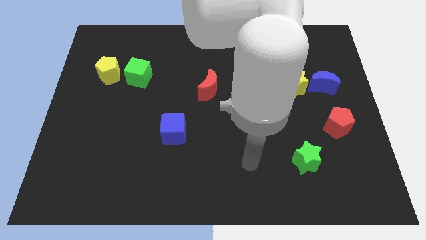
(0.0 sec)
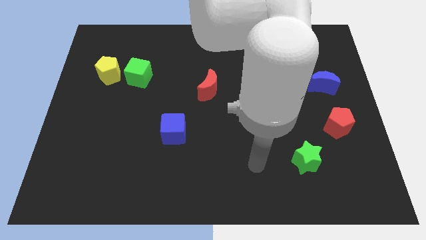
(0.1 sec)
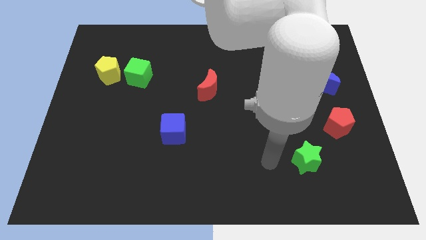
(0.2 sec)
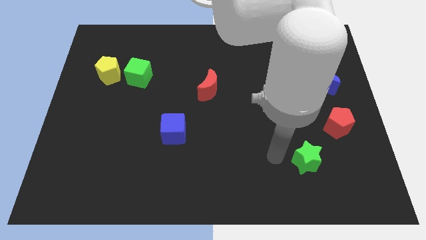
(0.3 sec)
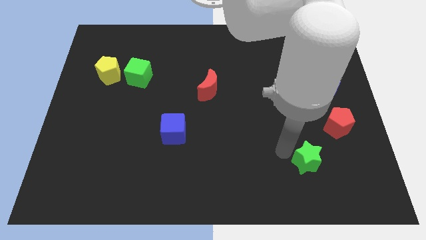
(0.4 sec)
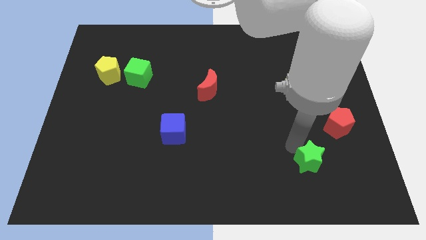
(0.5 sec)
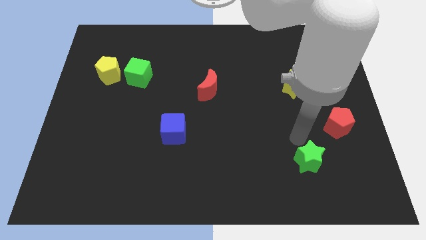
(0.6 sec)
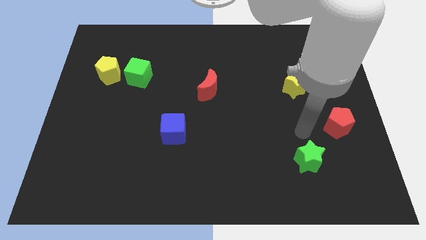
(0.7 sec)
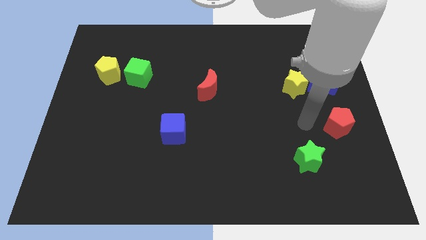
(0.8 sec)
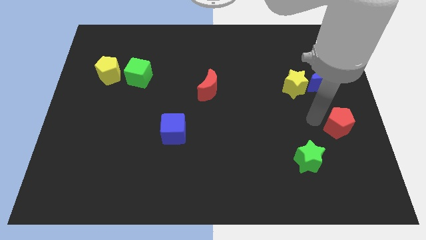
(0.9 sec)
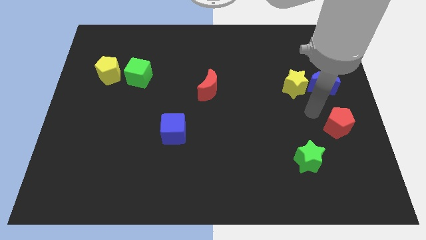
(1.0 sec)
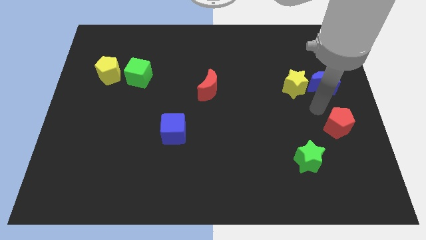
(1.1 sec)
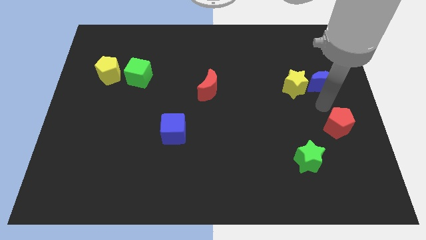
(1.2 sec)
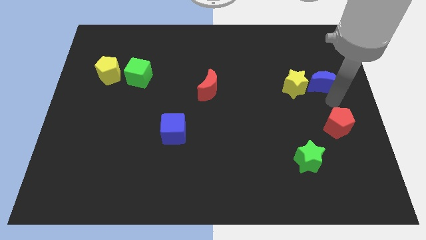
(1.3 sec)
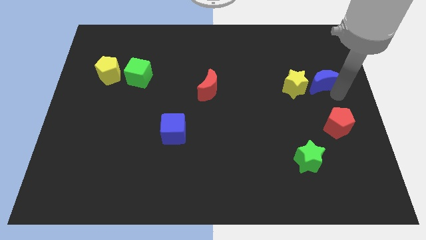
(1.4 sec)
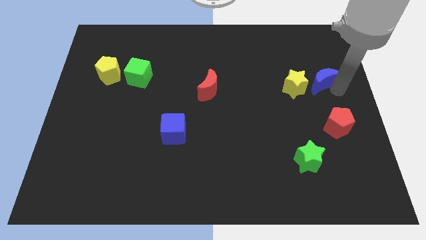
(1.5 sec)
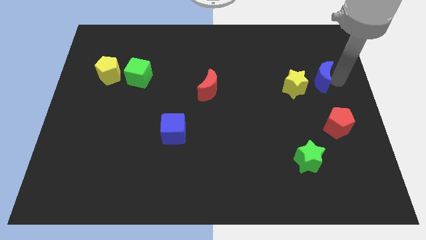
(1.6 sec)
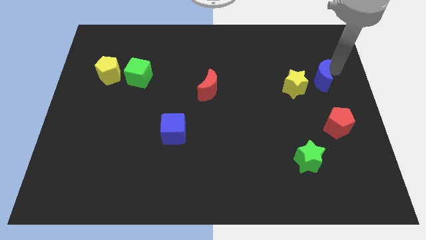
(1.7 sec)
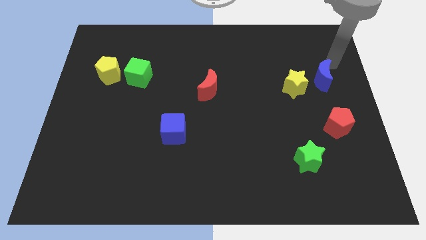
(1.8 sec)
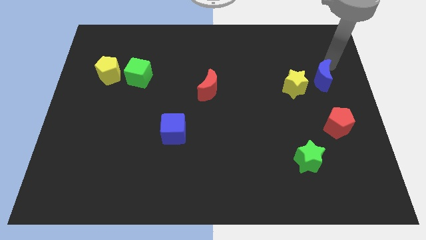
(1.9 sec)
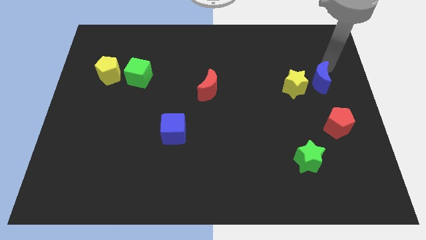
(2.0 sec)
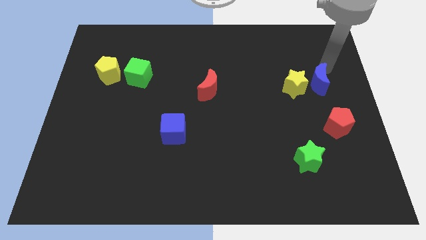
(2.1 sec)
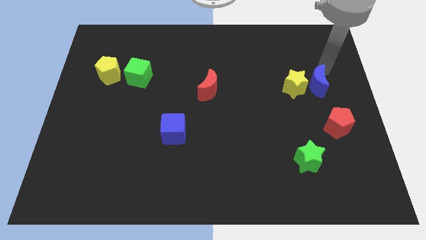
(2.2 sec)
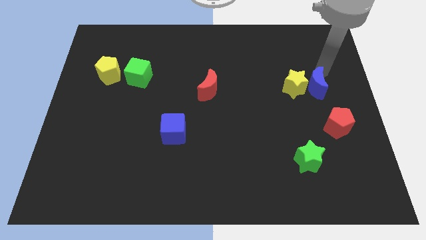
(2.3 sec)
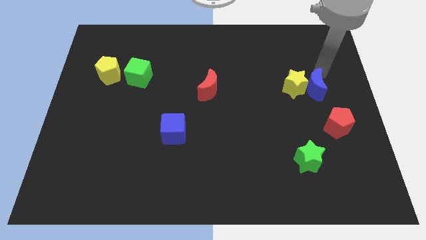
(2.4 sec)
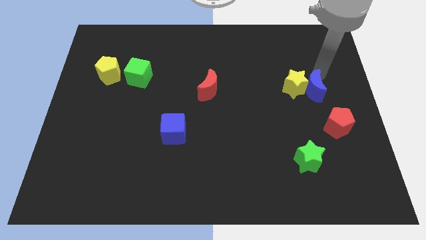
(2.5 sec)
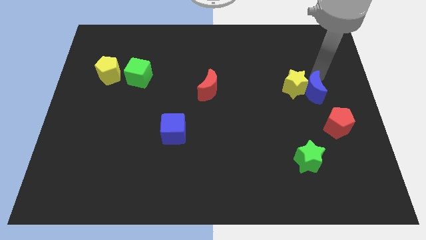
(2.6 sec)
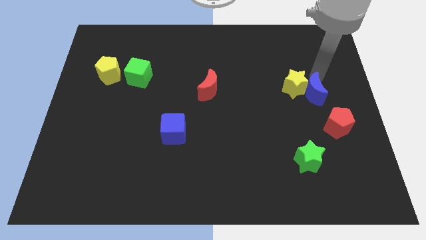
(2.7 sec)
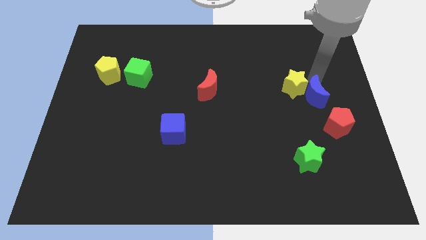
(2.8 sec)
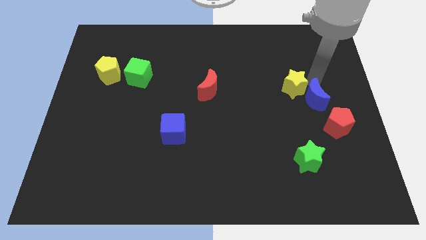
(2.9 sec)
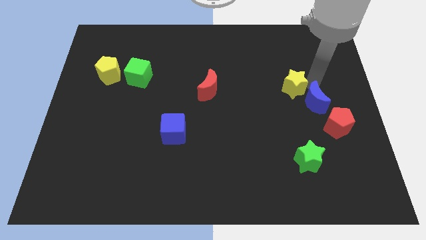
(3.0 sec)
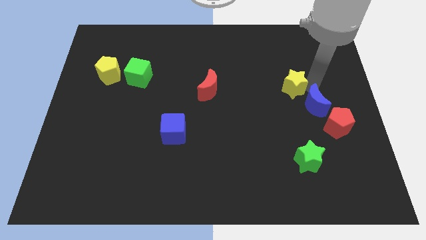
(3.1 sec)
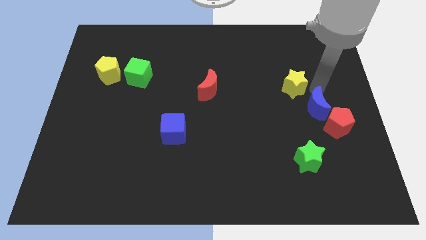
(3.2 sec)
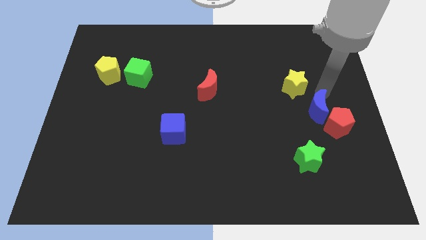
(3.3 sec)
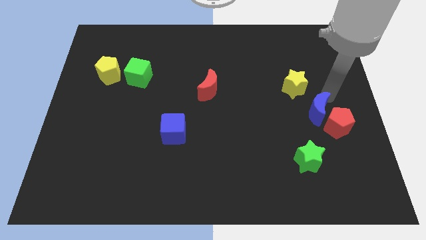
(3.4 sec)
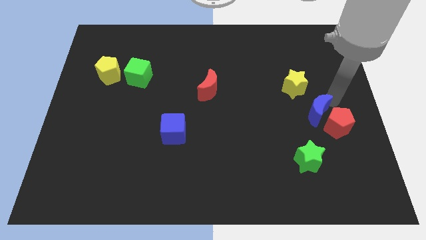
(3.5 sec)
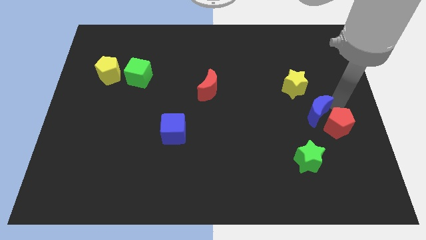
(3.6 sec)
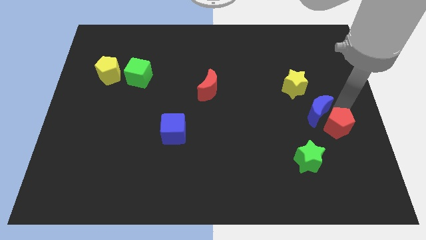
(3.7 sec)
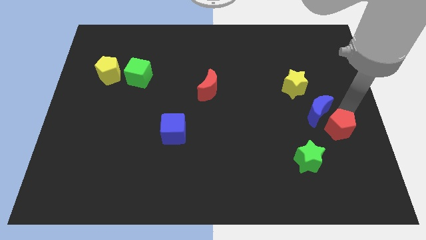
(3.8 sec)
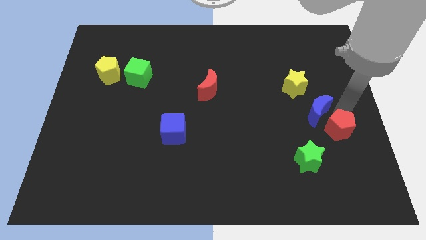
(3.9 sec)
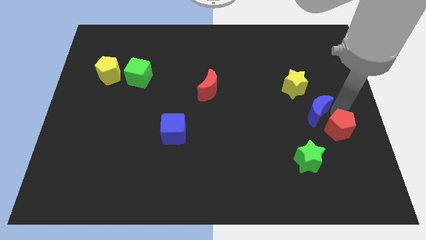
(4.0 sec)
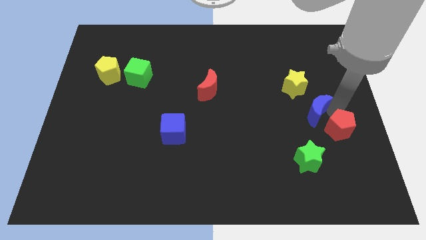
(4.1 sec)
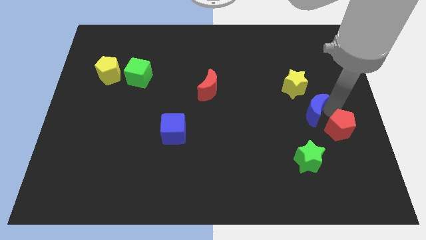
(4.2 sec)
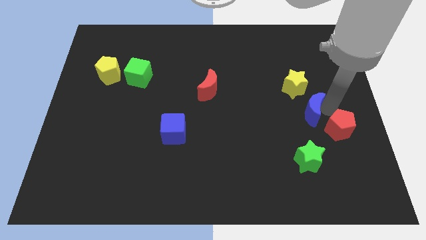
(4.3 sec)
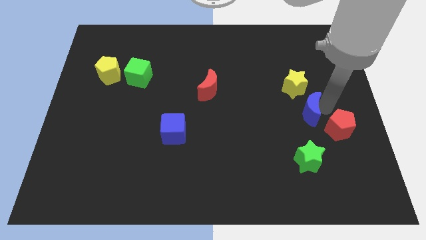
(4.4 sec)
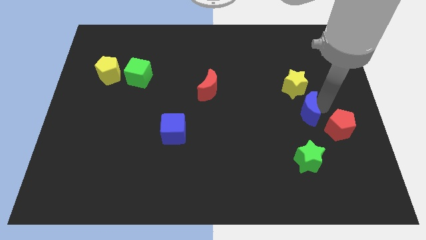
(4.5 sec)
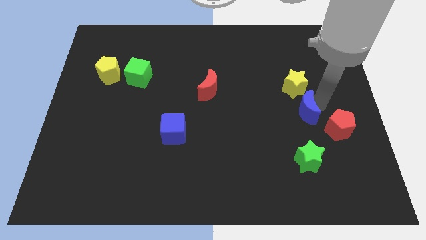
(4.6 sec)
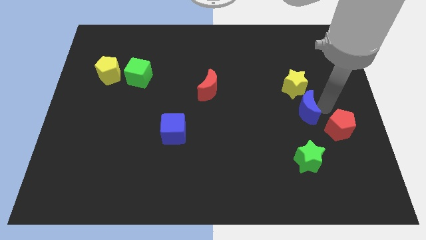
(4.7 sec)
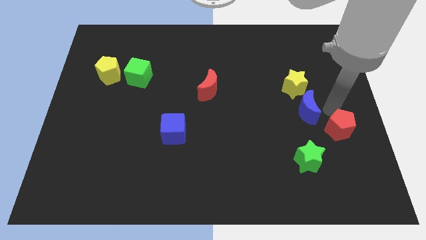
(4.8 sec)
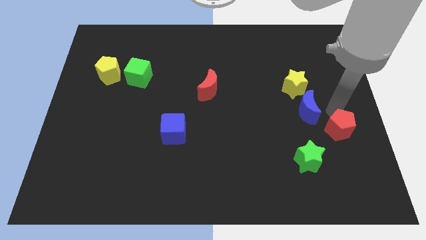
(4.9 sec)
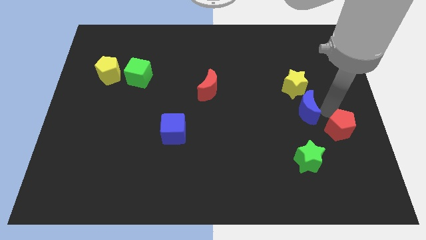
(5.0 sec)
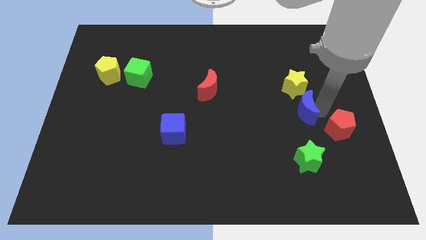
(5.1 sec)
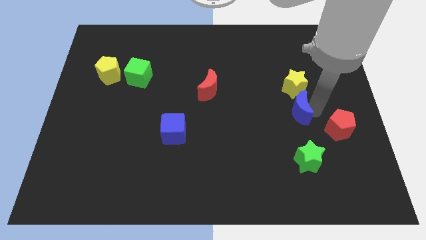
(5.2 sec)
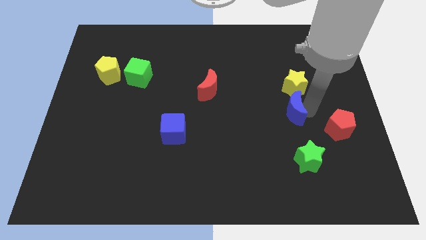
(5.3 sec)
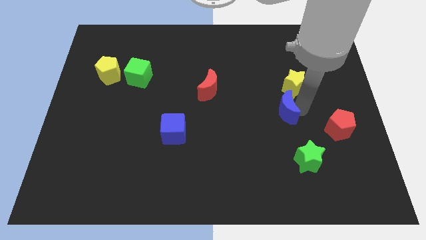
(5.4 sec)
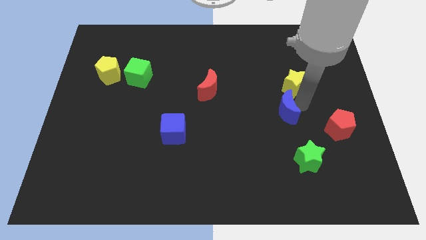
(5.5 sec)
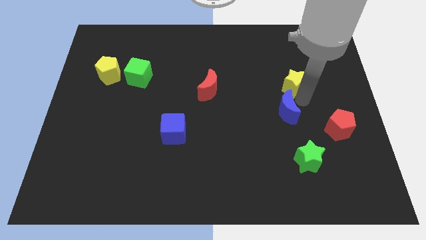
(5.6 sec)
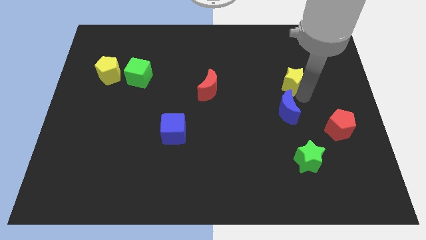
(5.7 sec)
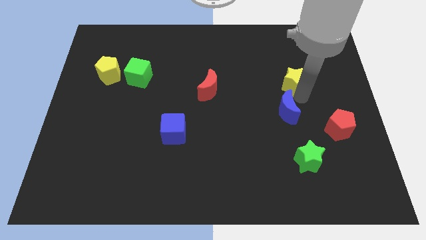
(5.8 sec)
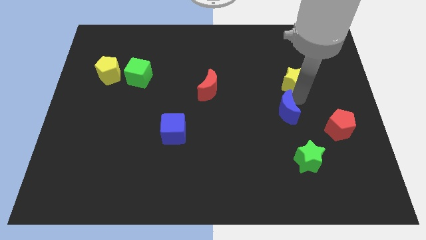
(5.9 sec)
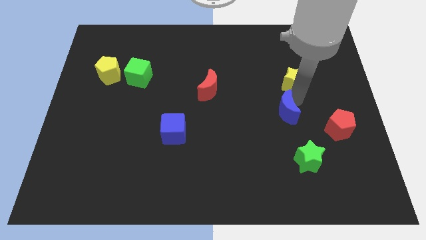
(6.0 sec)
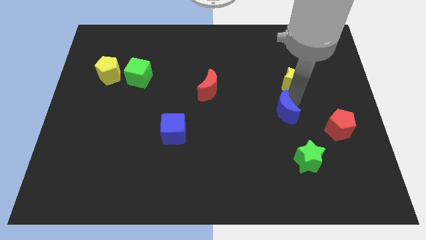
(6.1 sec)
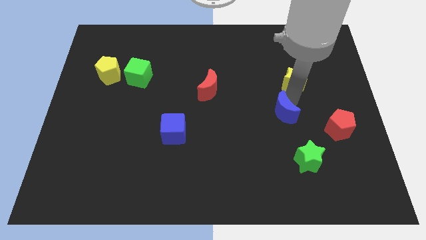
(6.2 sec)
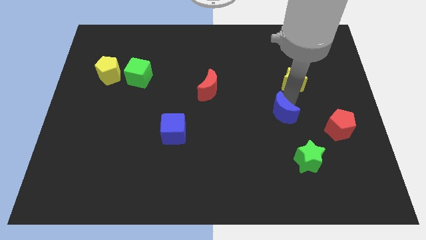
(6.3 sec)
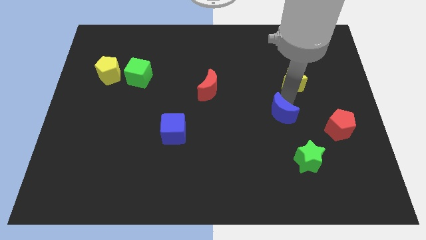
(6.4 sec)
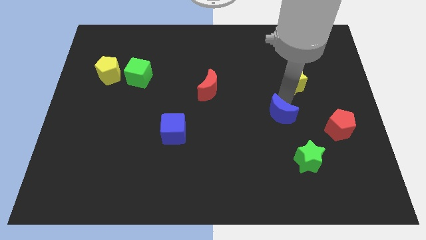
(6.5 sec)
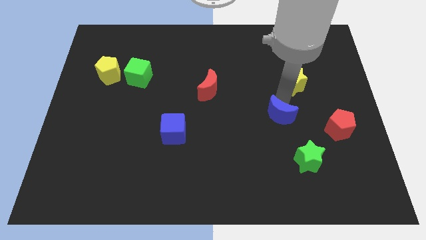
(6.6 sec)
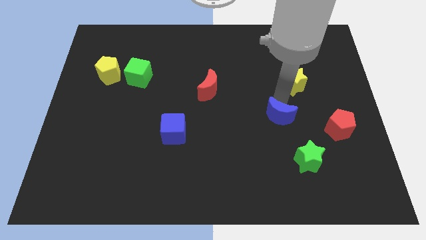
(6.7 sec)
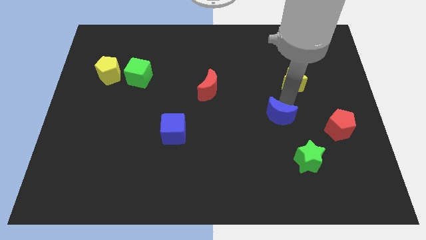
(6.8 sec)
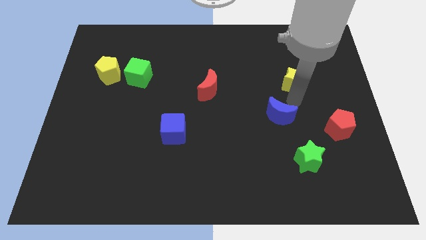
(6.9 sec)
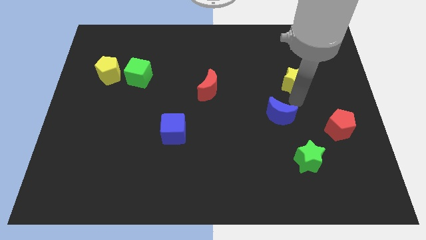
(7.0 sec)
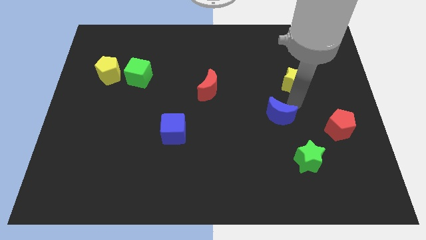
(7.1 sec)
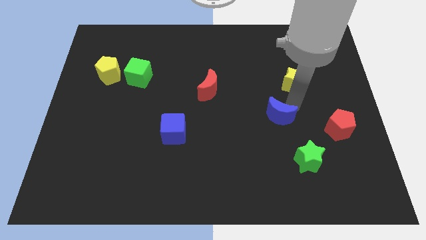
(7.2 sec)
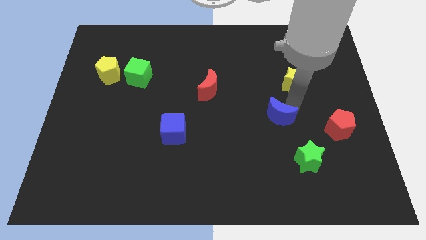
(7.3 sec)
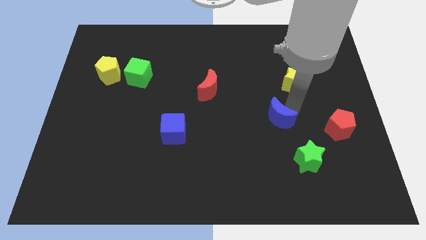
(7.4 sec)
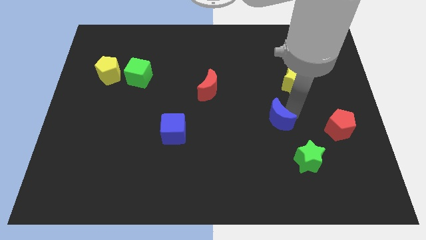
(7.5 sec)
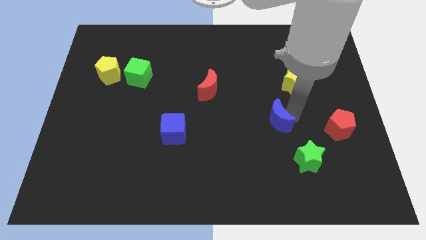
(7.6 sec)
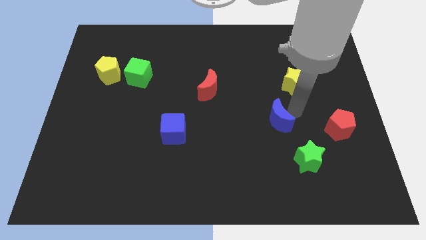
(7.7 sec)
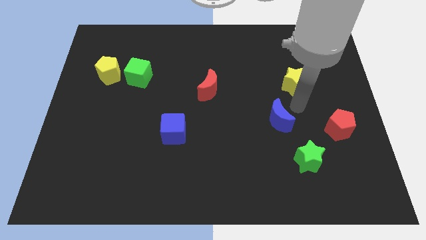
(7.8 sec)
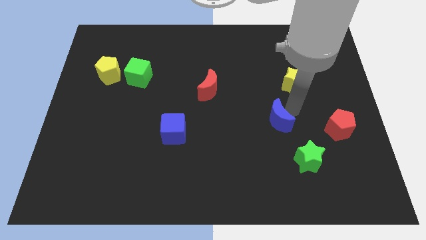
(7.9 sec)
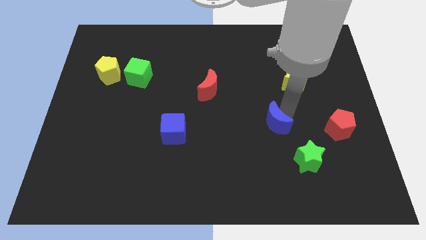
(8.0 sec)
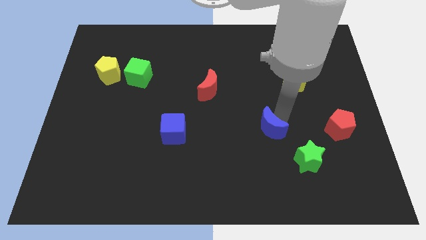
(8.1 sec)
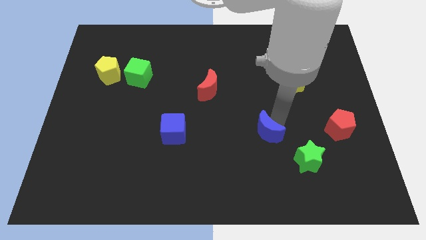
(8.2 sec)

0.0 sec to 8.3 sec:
slide the blue moon down and left diagonally
